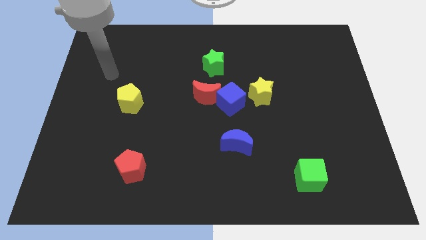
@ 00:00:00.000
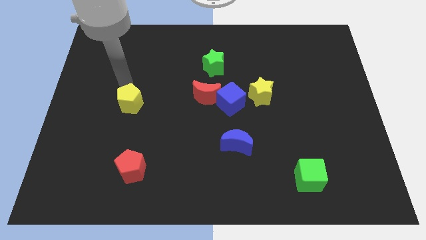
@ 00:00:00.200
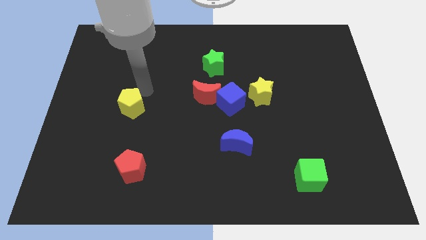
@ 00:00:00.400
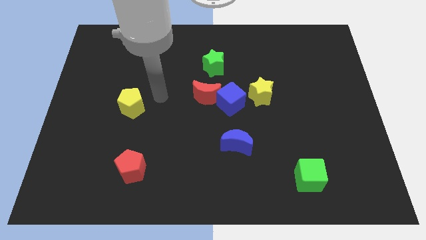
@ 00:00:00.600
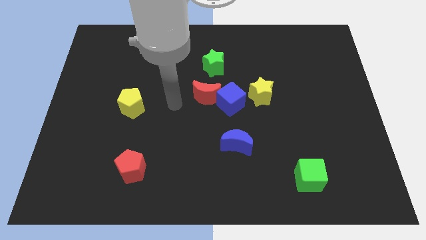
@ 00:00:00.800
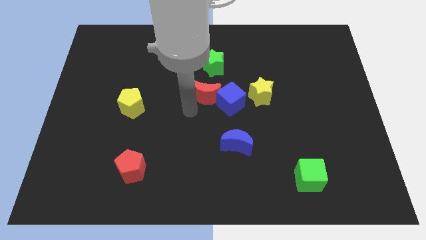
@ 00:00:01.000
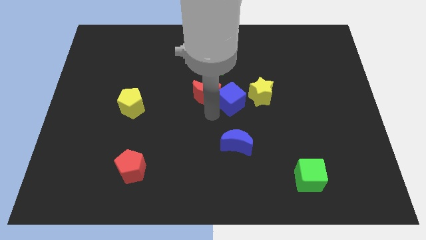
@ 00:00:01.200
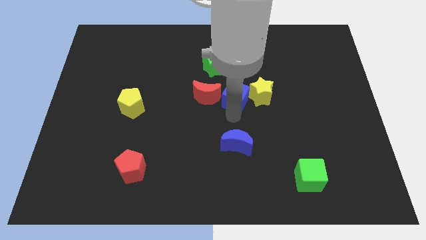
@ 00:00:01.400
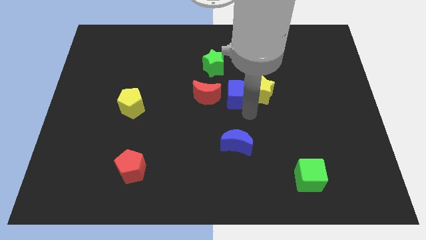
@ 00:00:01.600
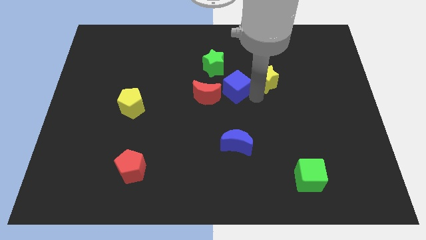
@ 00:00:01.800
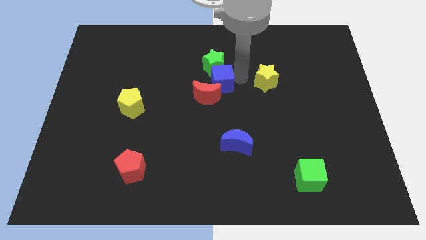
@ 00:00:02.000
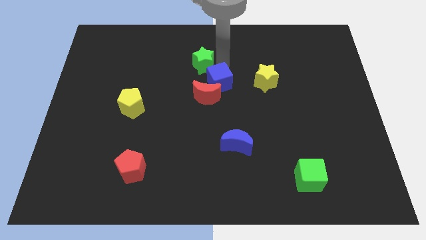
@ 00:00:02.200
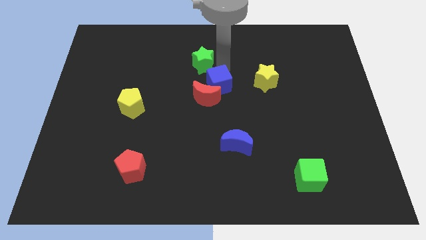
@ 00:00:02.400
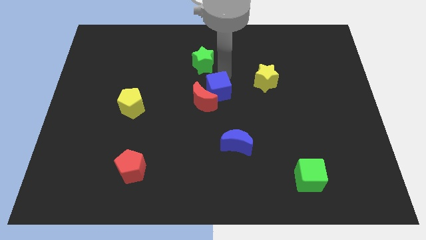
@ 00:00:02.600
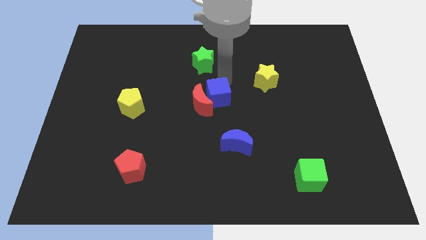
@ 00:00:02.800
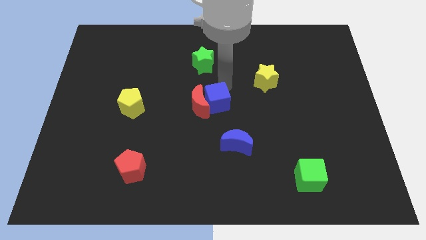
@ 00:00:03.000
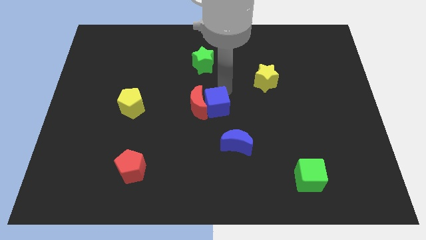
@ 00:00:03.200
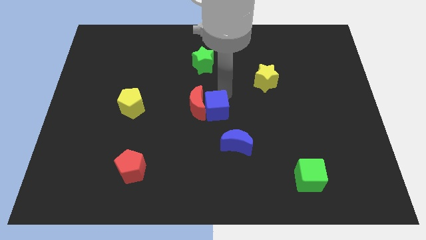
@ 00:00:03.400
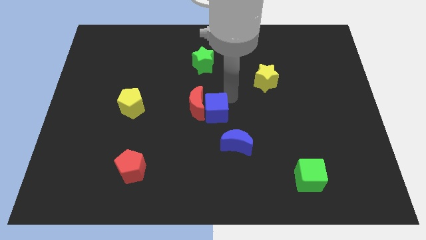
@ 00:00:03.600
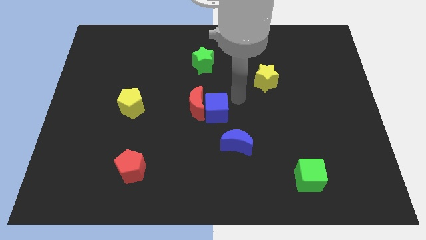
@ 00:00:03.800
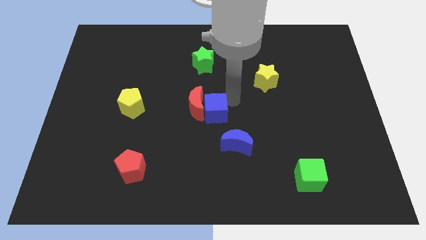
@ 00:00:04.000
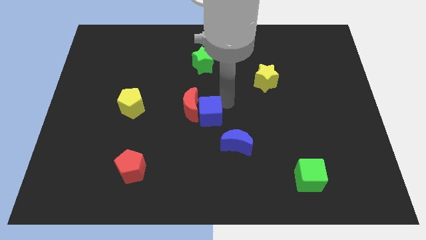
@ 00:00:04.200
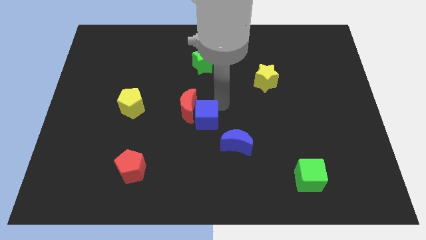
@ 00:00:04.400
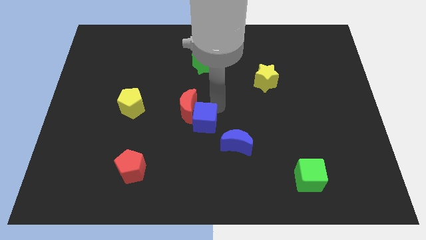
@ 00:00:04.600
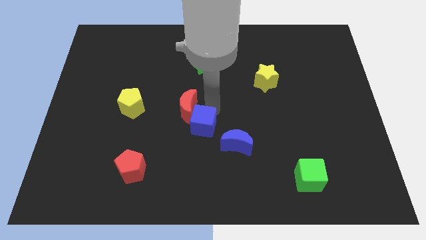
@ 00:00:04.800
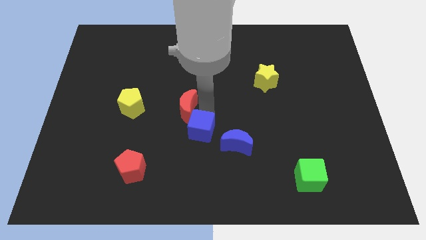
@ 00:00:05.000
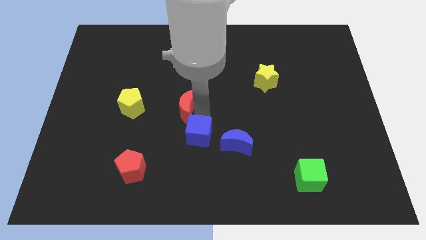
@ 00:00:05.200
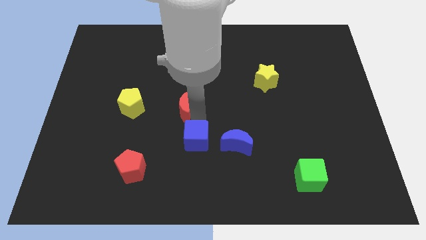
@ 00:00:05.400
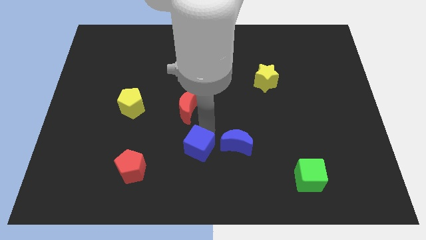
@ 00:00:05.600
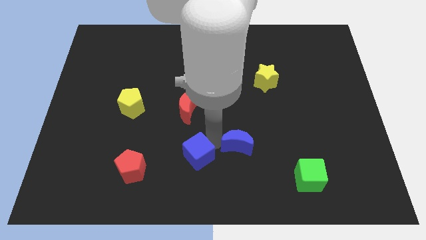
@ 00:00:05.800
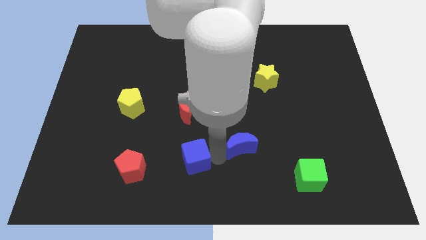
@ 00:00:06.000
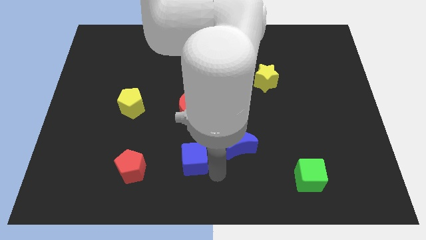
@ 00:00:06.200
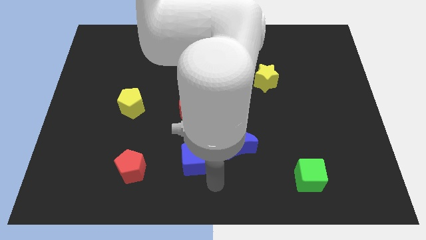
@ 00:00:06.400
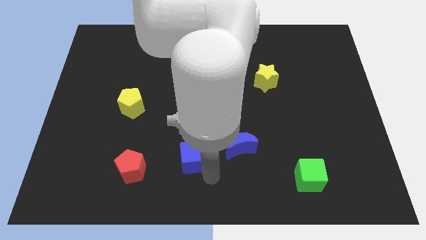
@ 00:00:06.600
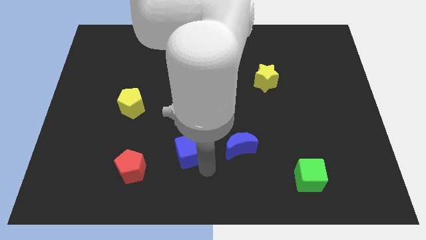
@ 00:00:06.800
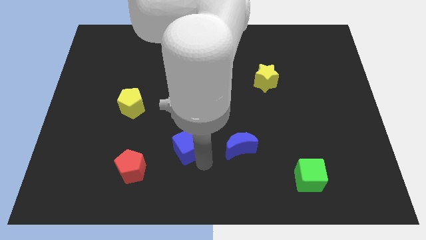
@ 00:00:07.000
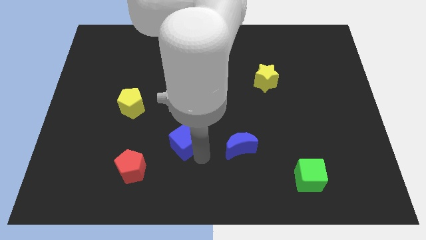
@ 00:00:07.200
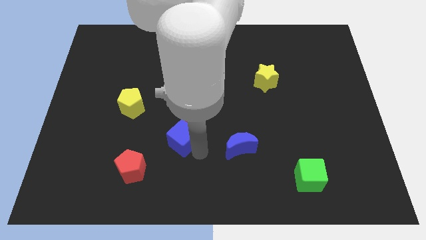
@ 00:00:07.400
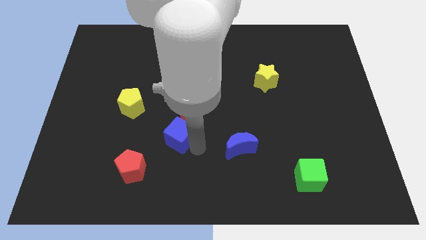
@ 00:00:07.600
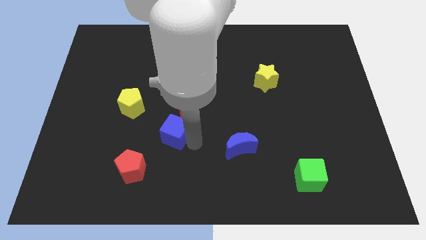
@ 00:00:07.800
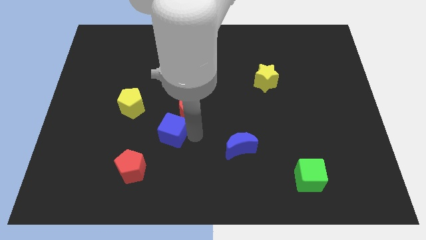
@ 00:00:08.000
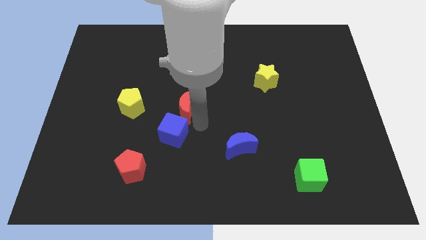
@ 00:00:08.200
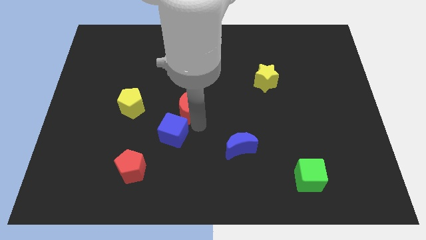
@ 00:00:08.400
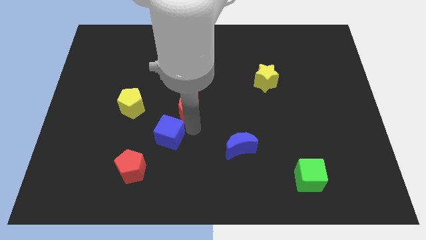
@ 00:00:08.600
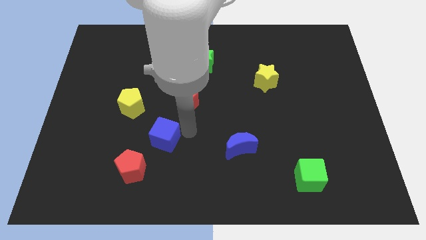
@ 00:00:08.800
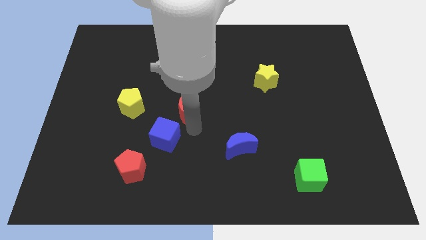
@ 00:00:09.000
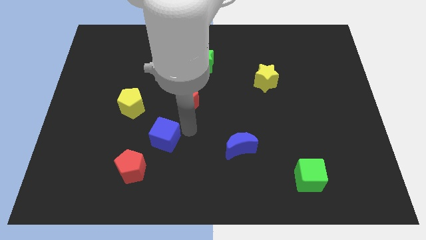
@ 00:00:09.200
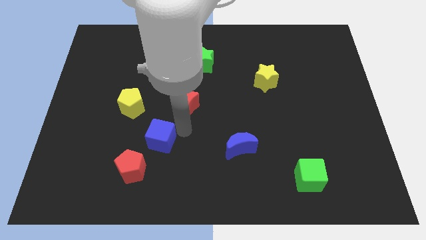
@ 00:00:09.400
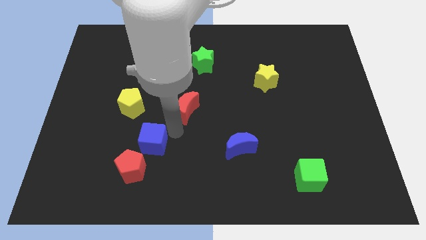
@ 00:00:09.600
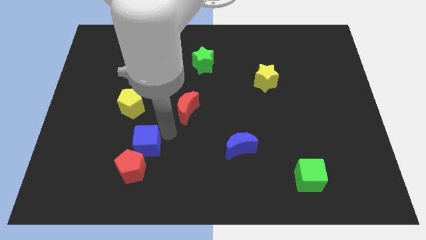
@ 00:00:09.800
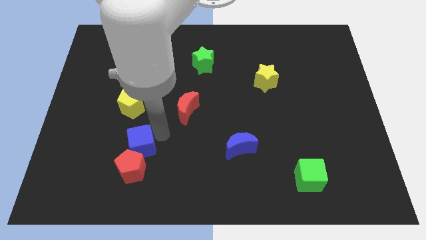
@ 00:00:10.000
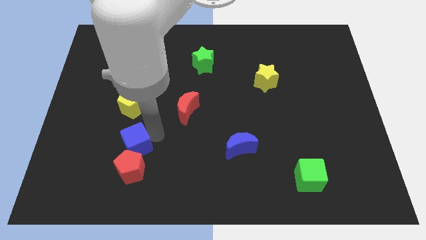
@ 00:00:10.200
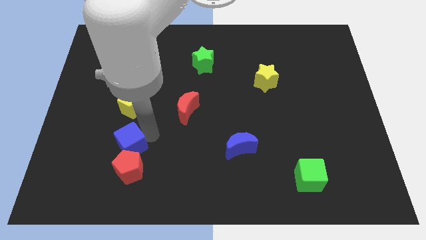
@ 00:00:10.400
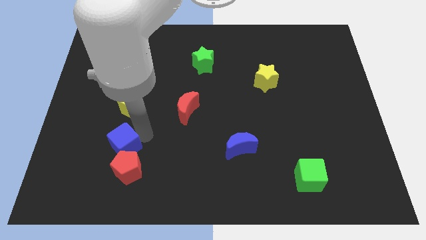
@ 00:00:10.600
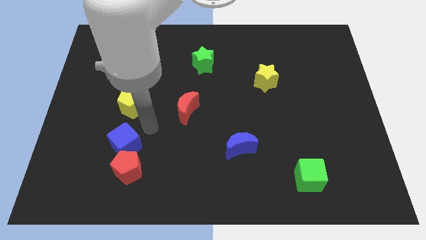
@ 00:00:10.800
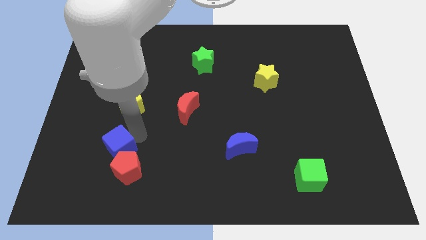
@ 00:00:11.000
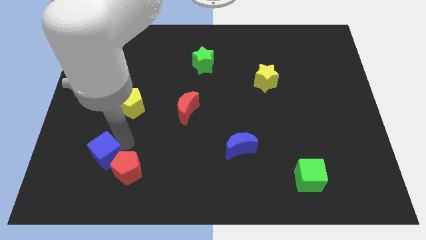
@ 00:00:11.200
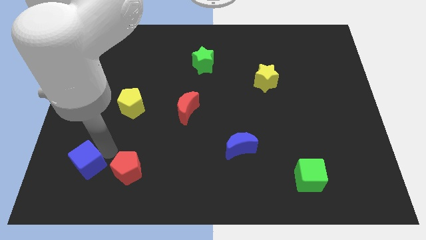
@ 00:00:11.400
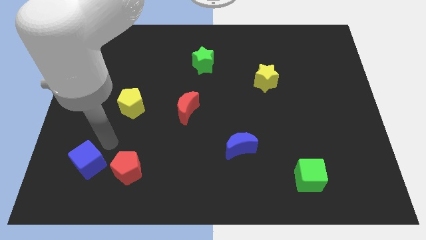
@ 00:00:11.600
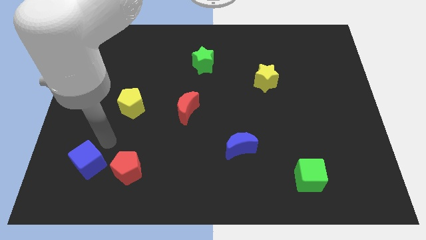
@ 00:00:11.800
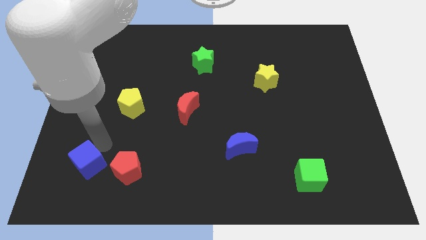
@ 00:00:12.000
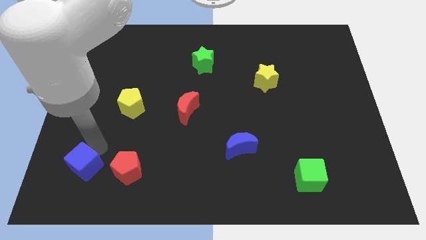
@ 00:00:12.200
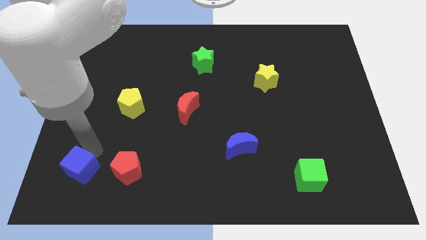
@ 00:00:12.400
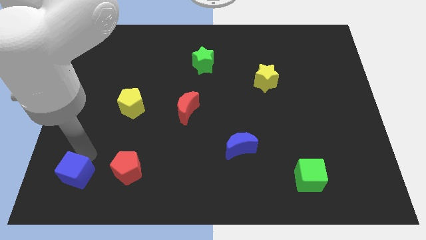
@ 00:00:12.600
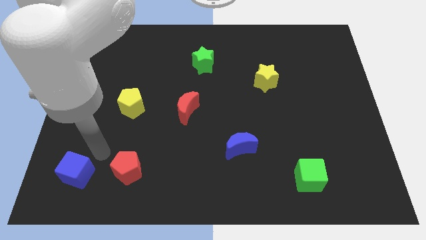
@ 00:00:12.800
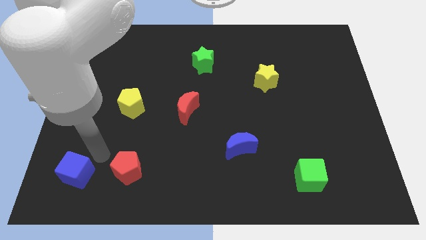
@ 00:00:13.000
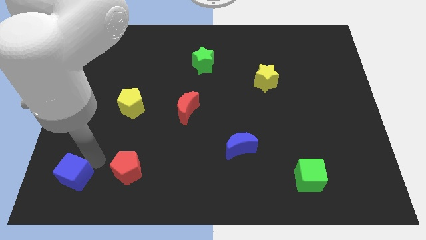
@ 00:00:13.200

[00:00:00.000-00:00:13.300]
push the blue cube to the bottom left

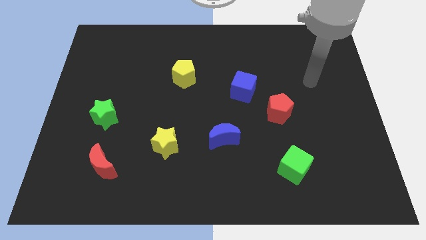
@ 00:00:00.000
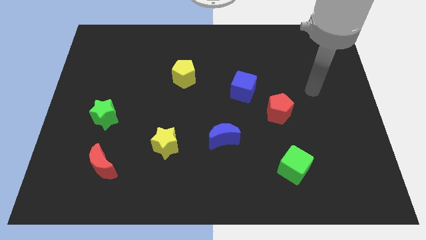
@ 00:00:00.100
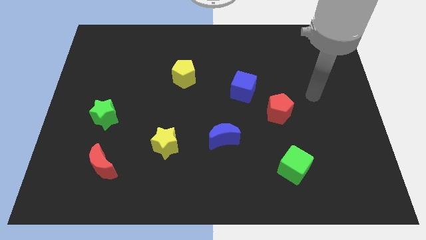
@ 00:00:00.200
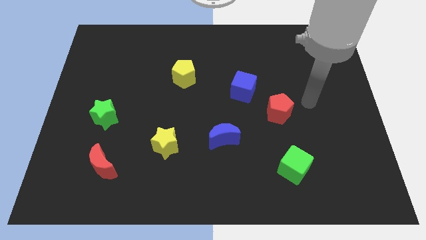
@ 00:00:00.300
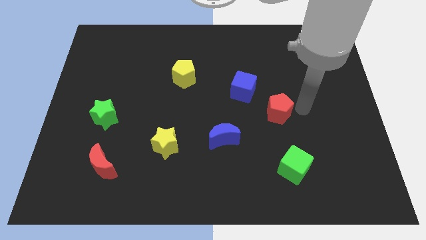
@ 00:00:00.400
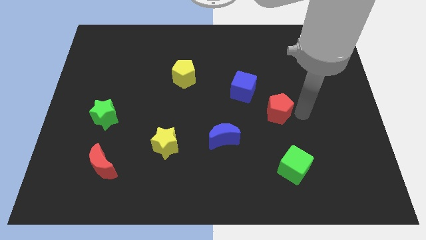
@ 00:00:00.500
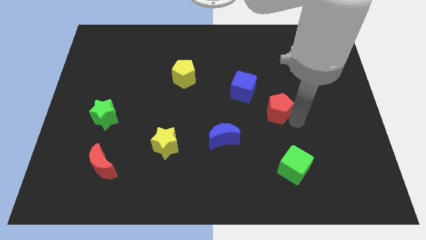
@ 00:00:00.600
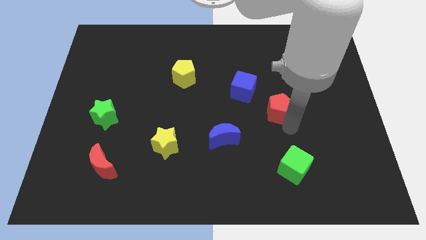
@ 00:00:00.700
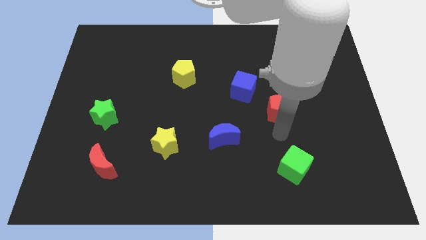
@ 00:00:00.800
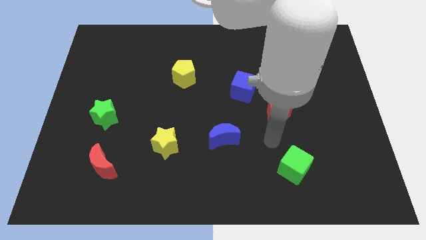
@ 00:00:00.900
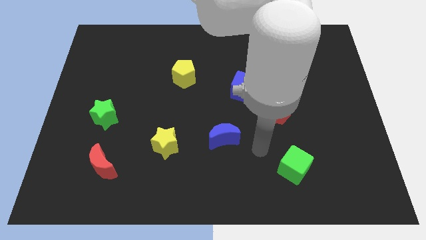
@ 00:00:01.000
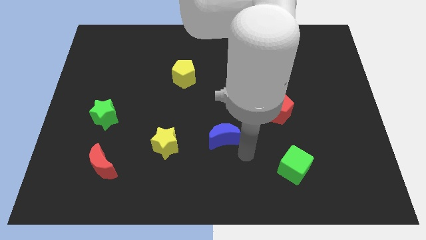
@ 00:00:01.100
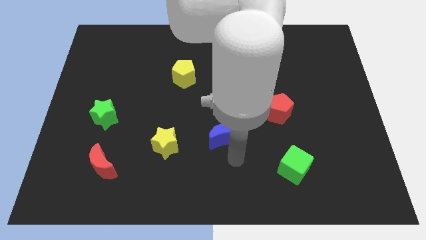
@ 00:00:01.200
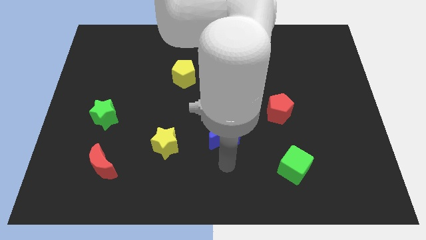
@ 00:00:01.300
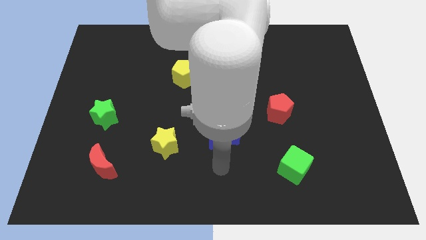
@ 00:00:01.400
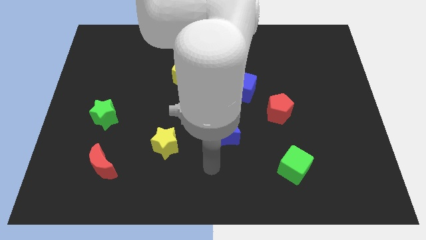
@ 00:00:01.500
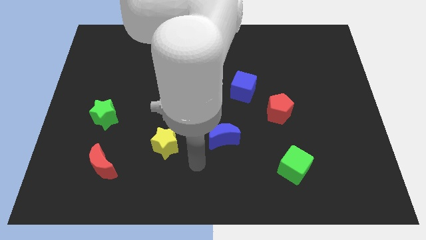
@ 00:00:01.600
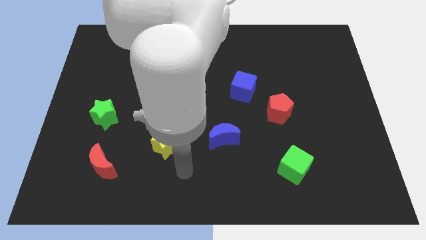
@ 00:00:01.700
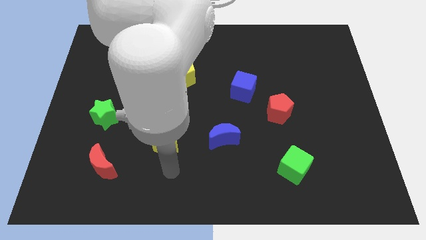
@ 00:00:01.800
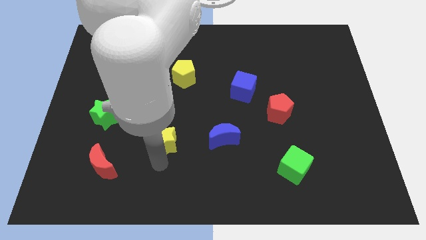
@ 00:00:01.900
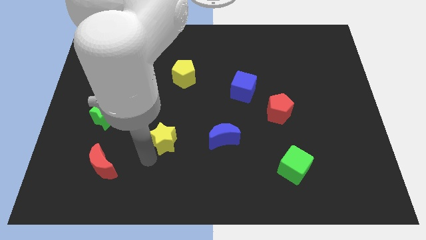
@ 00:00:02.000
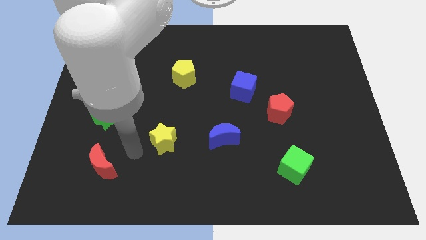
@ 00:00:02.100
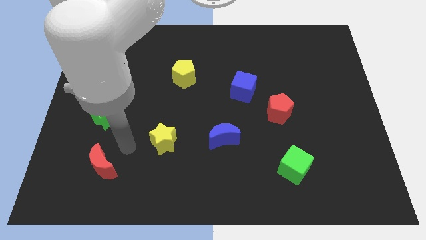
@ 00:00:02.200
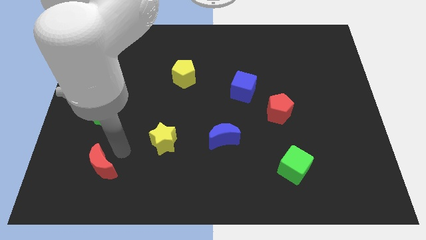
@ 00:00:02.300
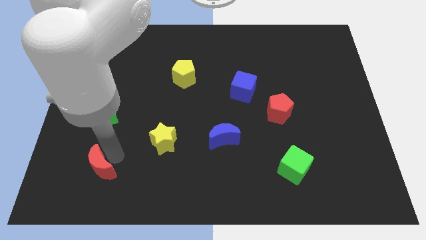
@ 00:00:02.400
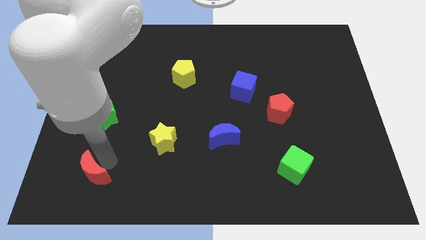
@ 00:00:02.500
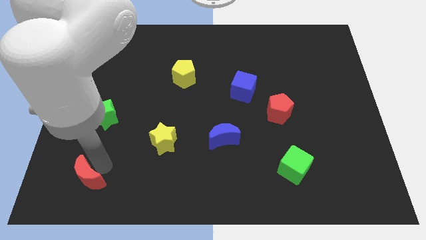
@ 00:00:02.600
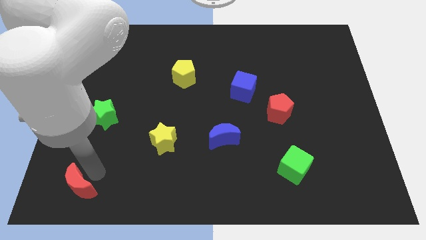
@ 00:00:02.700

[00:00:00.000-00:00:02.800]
put the red moon to the bottom left corner
